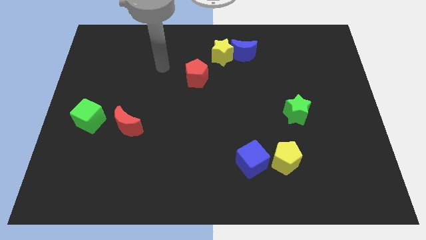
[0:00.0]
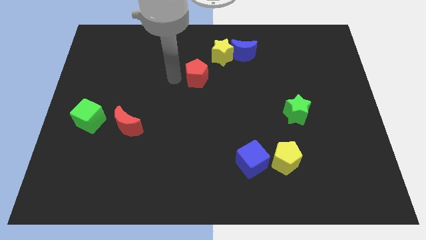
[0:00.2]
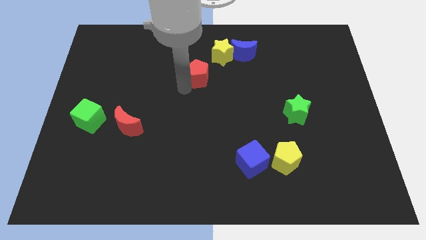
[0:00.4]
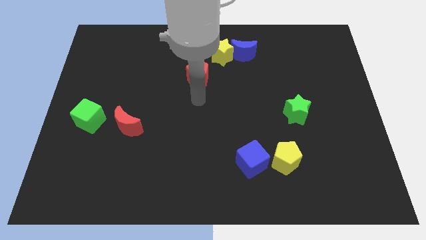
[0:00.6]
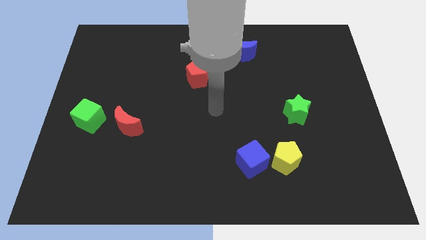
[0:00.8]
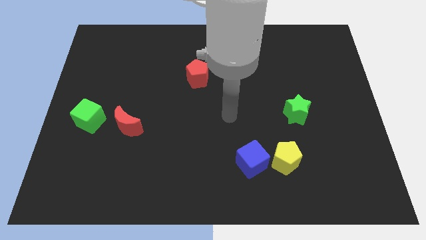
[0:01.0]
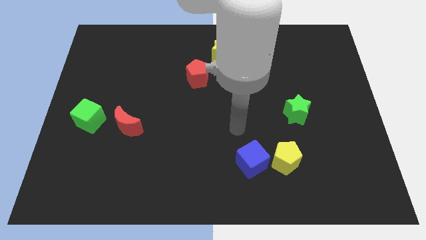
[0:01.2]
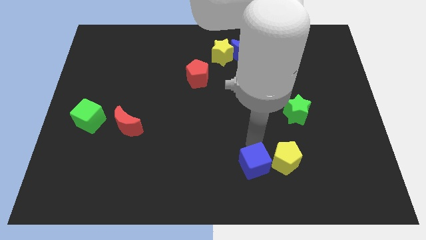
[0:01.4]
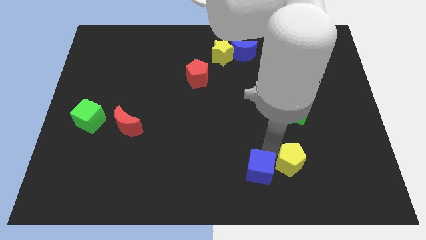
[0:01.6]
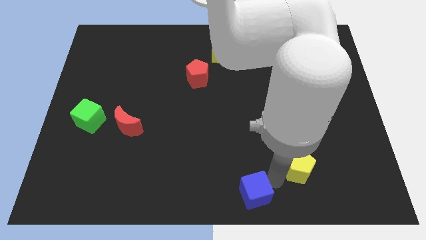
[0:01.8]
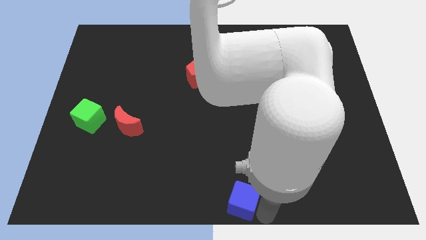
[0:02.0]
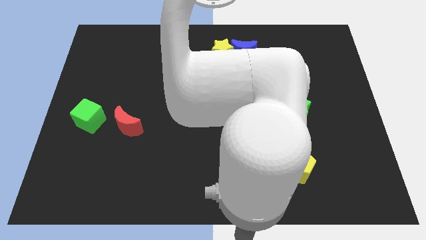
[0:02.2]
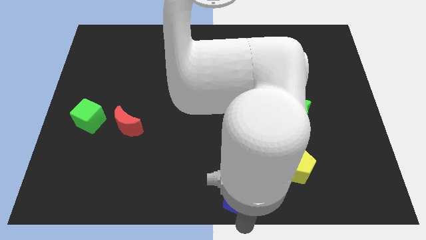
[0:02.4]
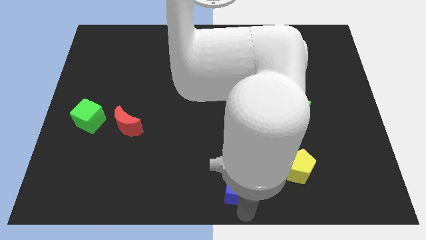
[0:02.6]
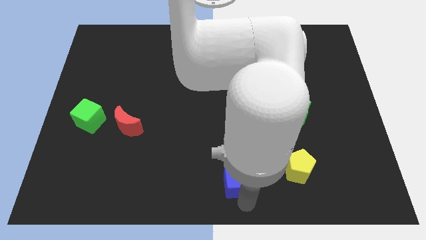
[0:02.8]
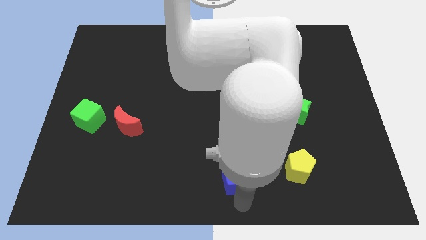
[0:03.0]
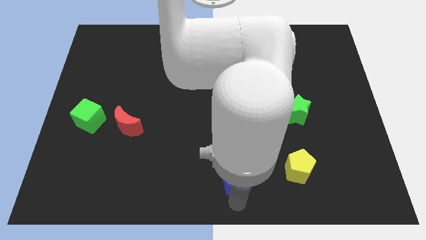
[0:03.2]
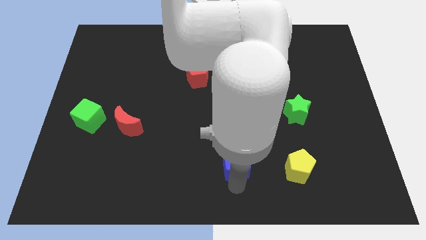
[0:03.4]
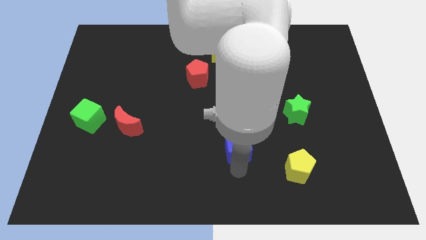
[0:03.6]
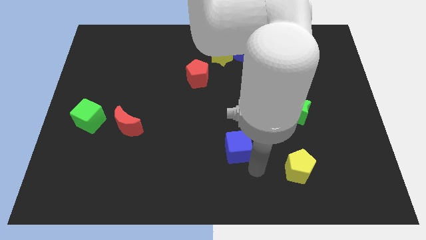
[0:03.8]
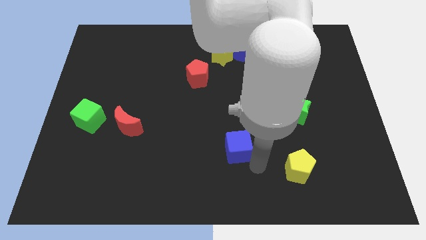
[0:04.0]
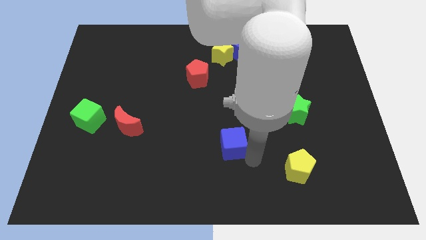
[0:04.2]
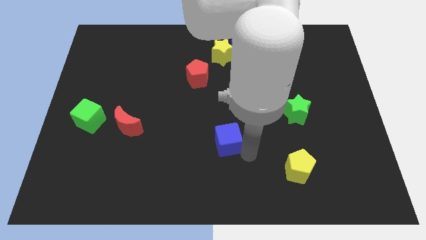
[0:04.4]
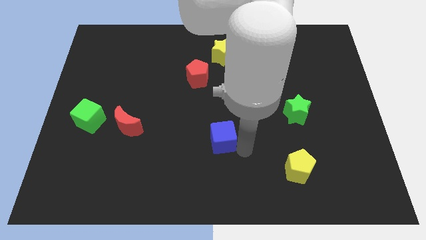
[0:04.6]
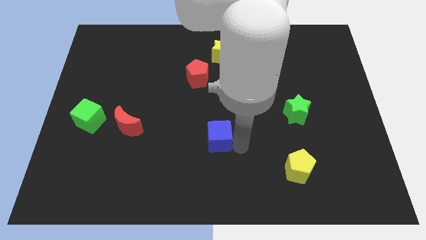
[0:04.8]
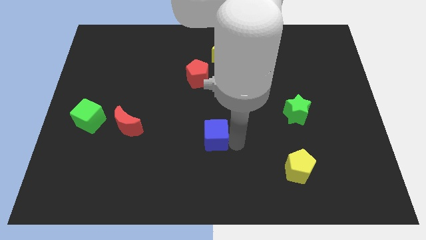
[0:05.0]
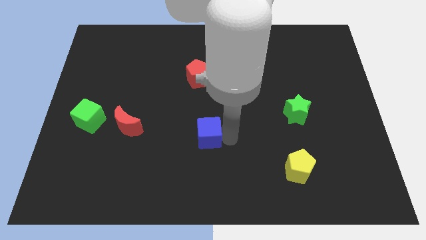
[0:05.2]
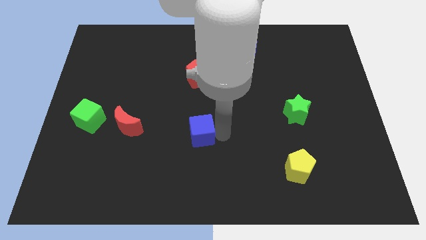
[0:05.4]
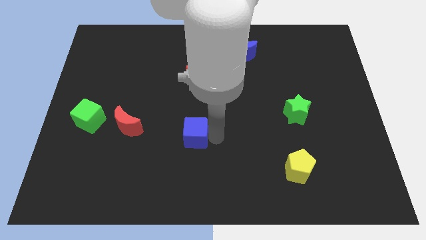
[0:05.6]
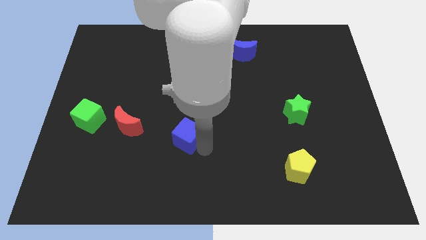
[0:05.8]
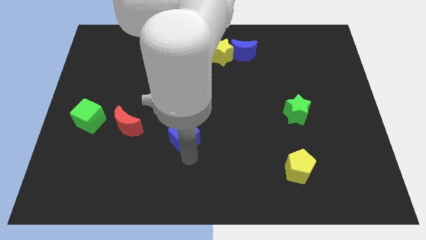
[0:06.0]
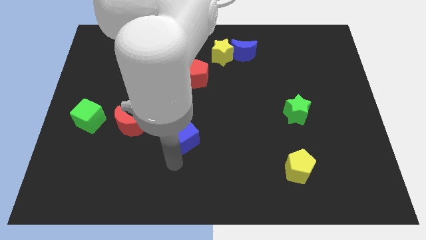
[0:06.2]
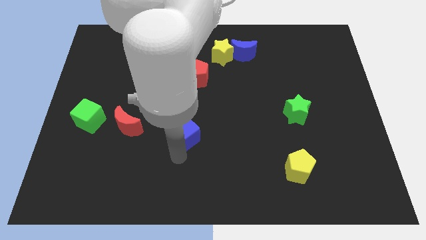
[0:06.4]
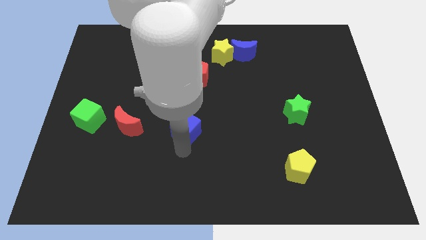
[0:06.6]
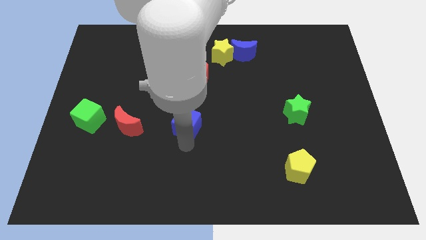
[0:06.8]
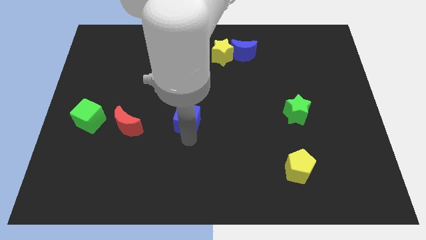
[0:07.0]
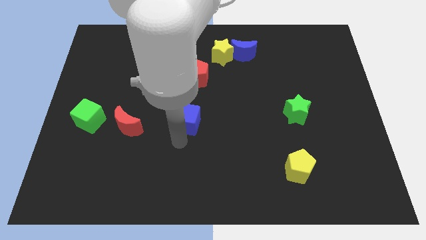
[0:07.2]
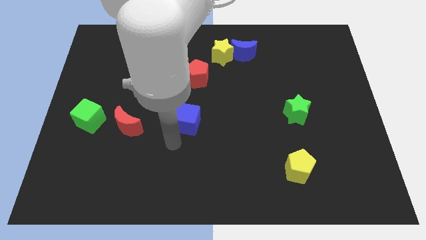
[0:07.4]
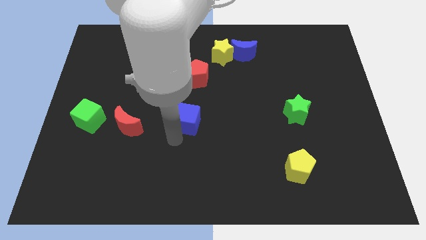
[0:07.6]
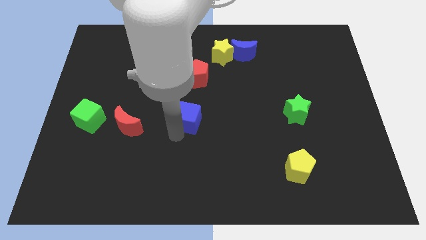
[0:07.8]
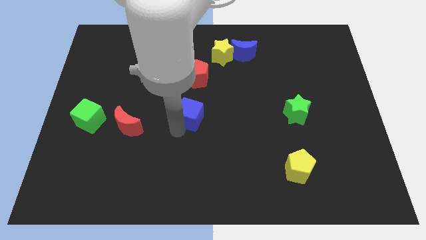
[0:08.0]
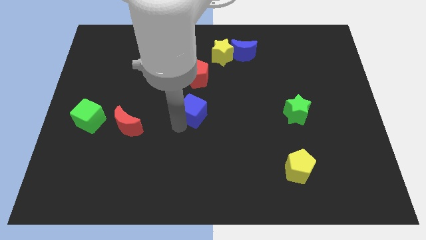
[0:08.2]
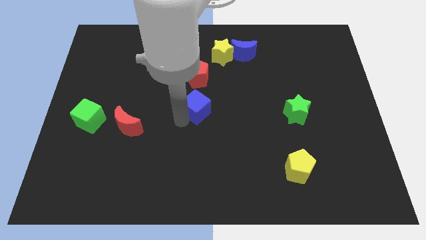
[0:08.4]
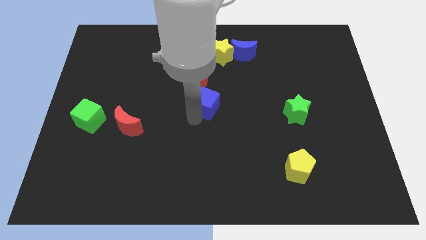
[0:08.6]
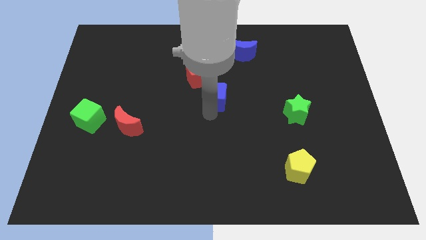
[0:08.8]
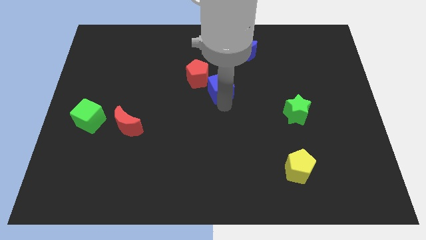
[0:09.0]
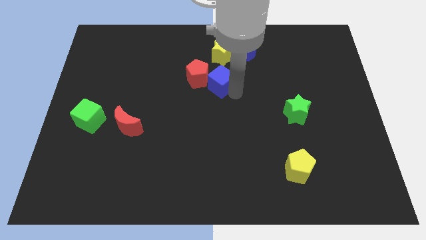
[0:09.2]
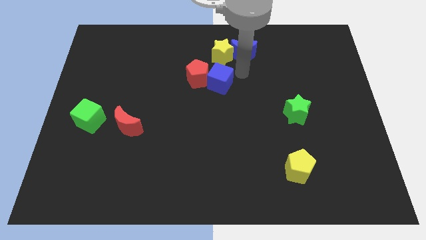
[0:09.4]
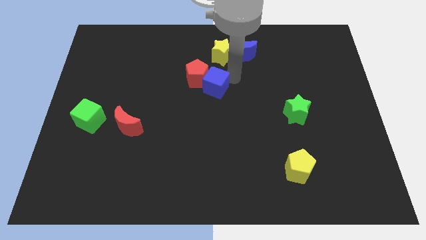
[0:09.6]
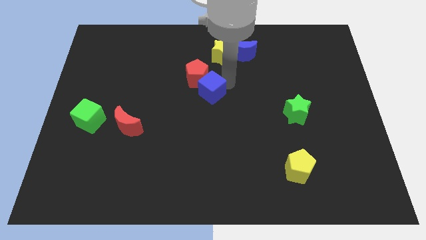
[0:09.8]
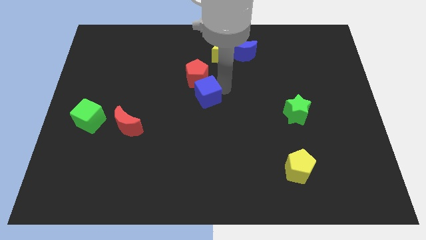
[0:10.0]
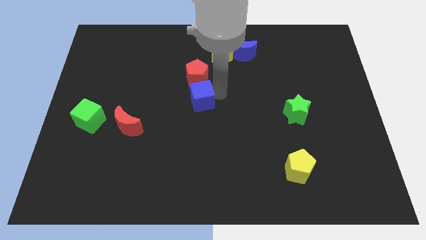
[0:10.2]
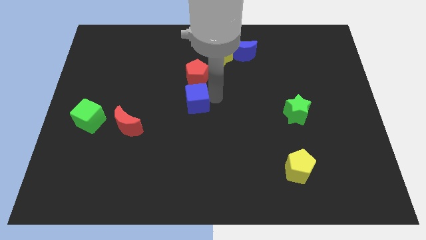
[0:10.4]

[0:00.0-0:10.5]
move the blue cube up and then to the left

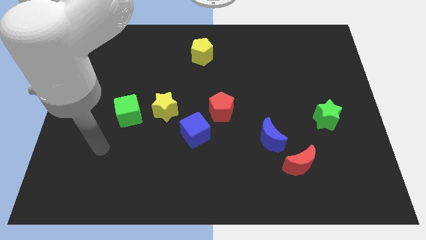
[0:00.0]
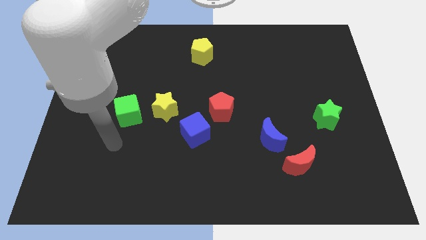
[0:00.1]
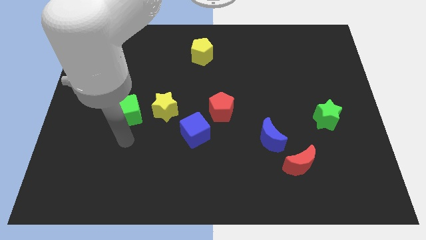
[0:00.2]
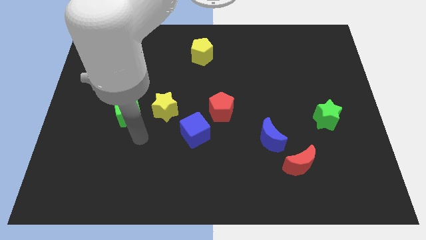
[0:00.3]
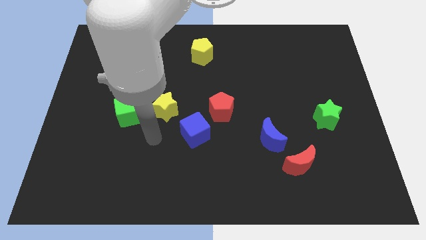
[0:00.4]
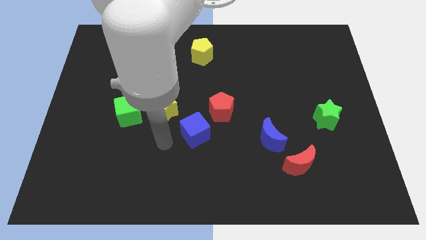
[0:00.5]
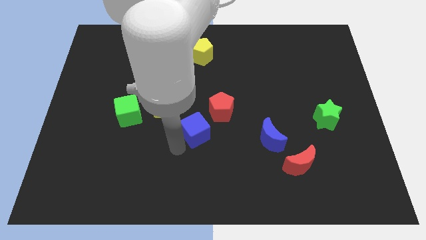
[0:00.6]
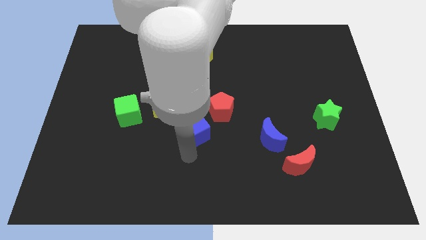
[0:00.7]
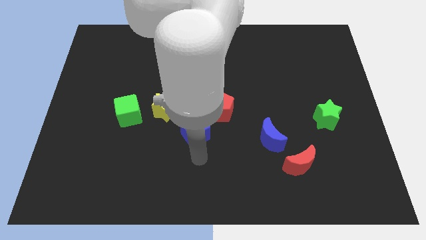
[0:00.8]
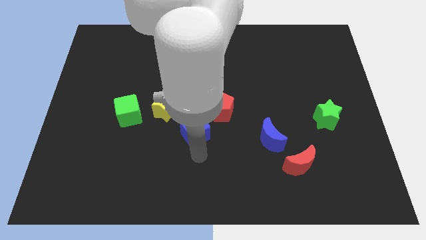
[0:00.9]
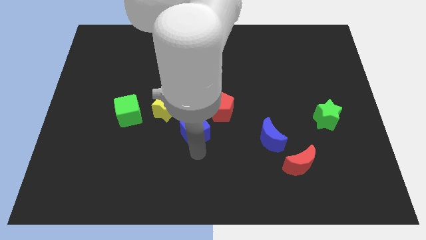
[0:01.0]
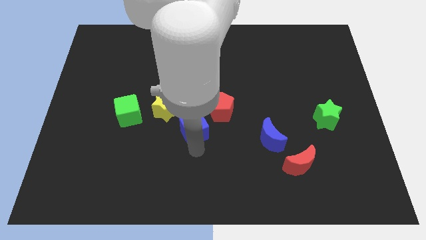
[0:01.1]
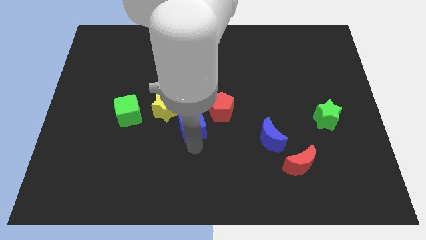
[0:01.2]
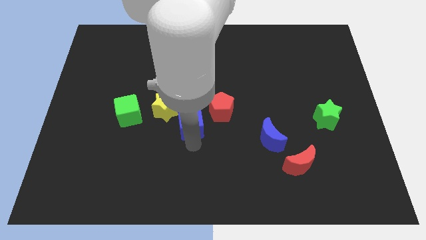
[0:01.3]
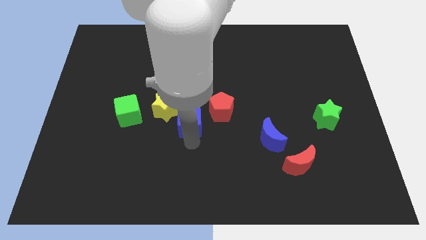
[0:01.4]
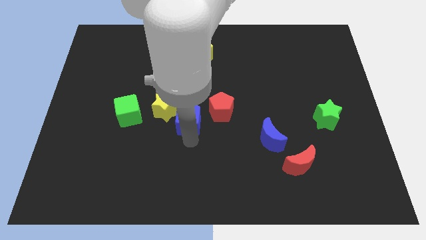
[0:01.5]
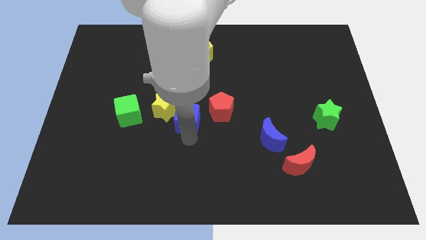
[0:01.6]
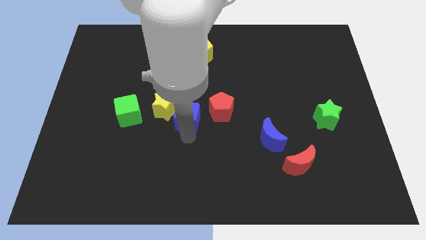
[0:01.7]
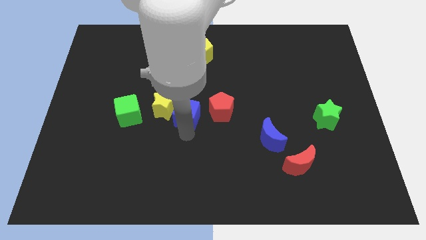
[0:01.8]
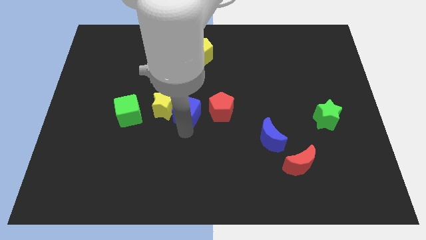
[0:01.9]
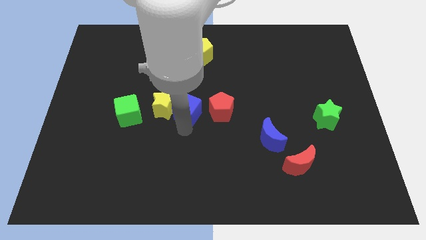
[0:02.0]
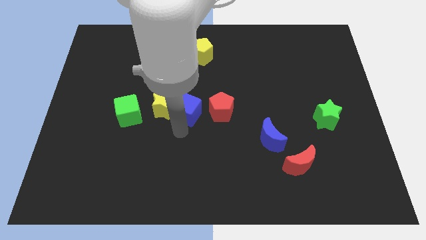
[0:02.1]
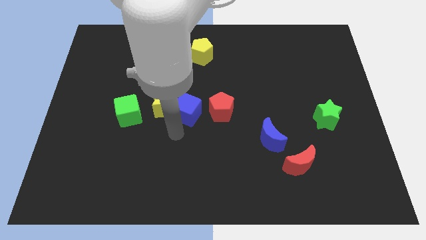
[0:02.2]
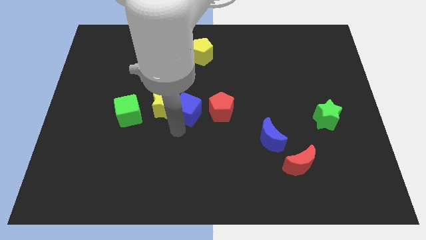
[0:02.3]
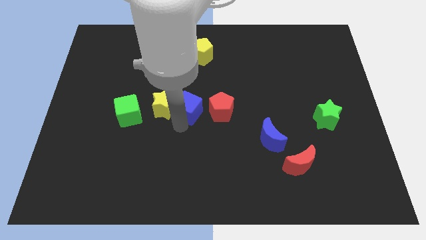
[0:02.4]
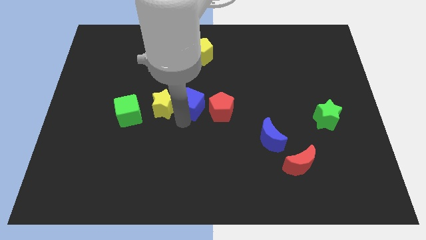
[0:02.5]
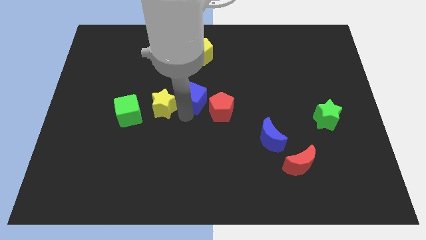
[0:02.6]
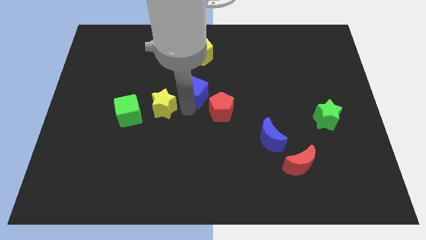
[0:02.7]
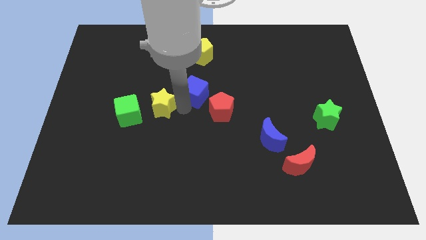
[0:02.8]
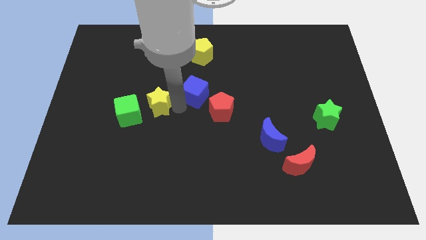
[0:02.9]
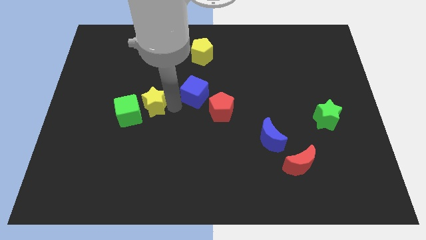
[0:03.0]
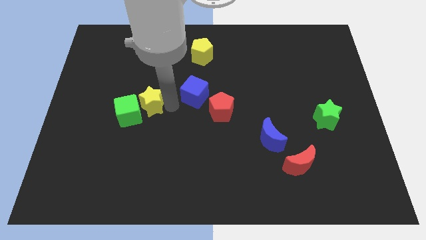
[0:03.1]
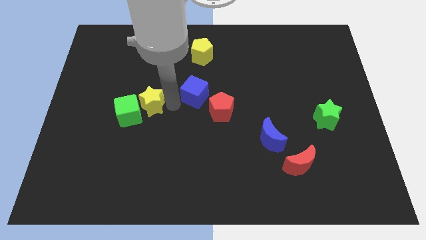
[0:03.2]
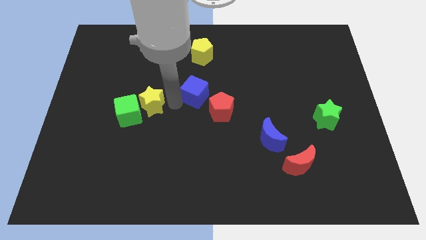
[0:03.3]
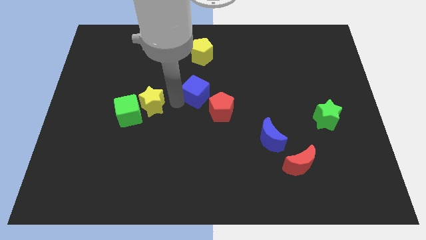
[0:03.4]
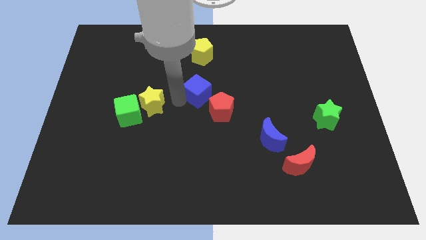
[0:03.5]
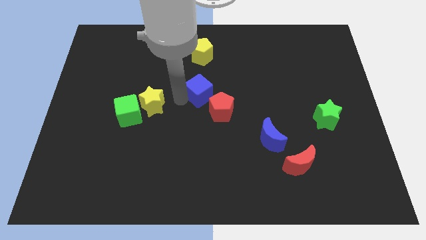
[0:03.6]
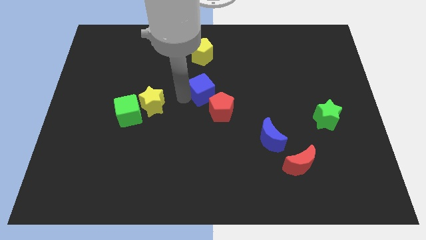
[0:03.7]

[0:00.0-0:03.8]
slide the blue cube a bit up and right
